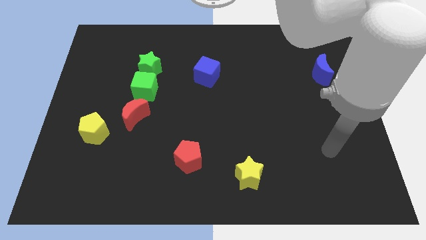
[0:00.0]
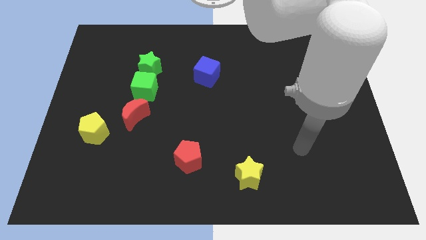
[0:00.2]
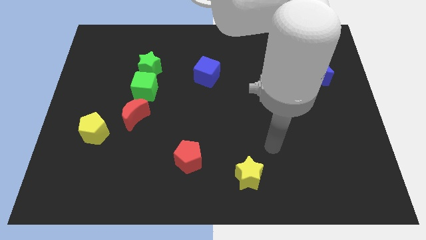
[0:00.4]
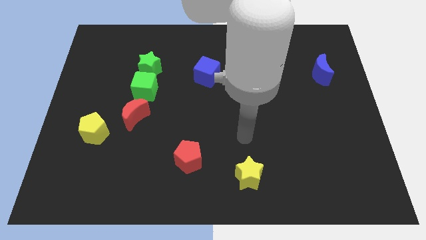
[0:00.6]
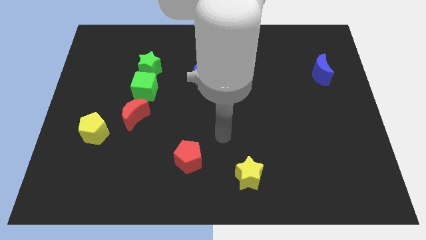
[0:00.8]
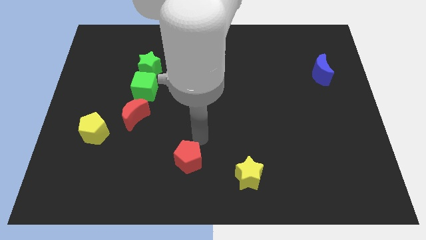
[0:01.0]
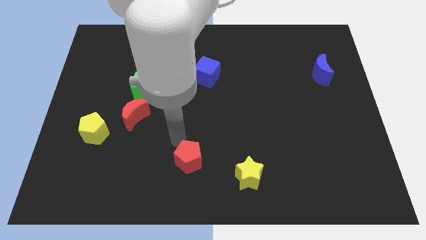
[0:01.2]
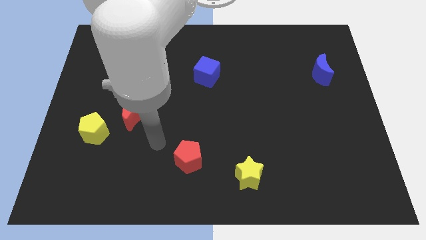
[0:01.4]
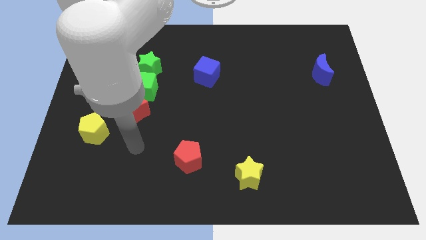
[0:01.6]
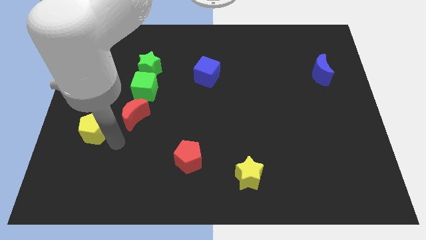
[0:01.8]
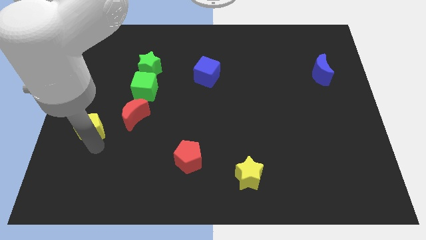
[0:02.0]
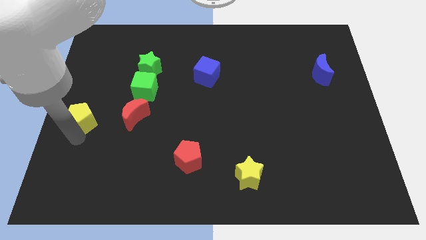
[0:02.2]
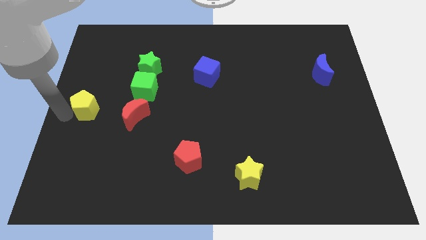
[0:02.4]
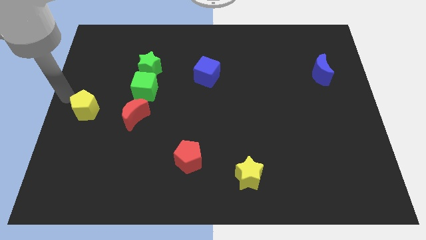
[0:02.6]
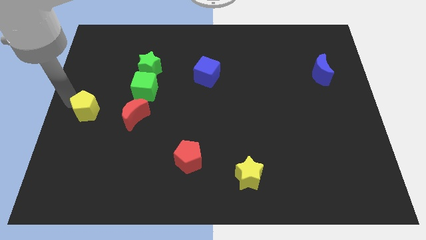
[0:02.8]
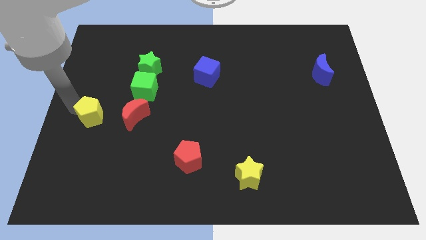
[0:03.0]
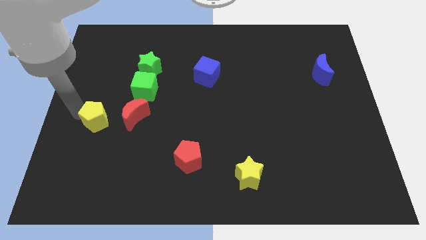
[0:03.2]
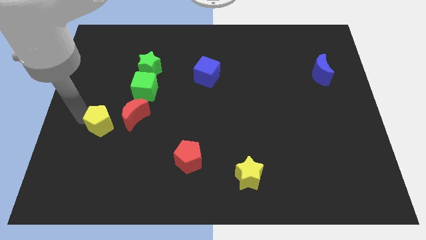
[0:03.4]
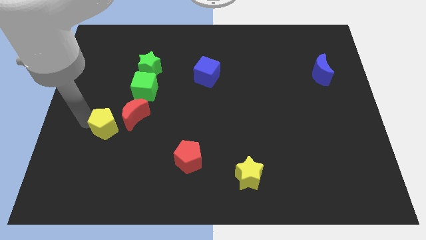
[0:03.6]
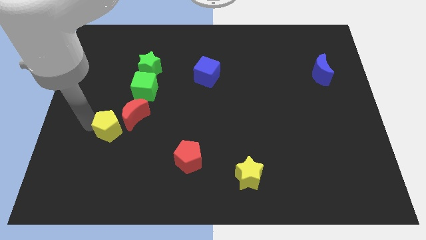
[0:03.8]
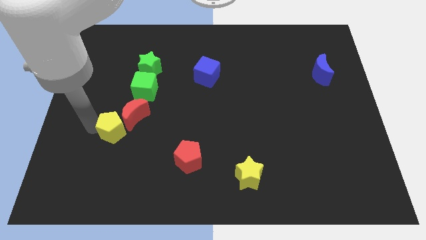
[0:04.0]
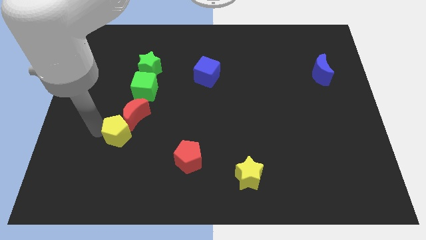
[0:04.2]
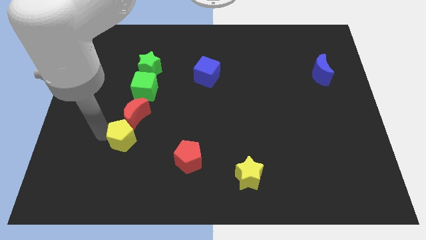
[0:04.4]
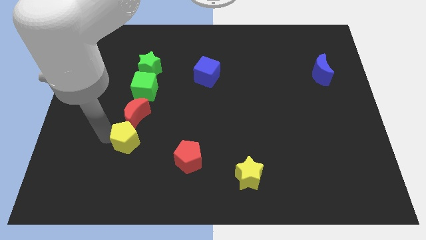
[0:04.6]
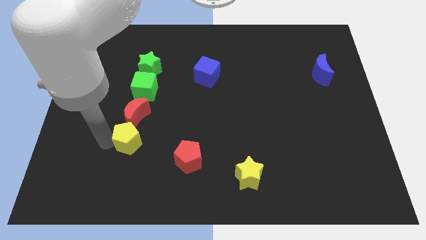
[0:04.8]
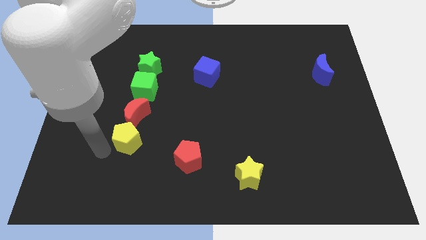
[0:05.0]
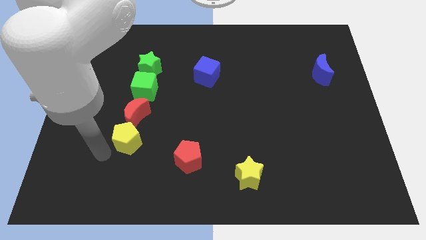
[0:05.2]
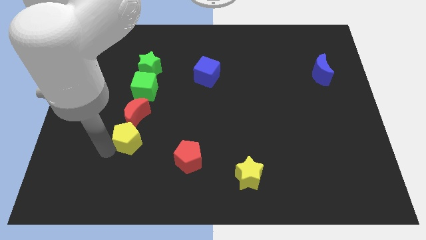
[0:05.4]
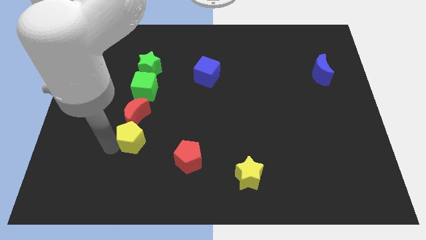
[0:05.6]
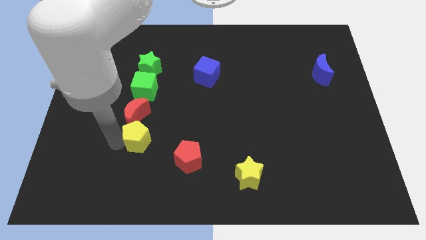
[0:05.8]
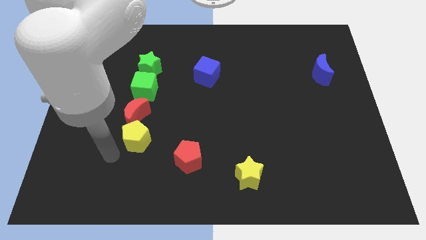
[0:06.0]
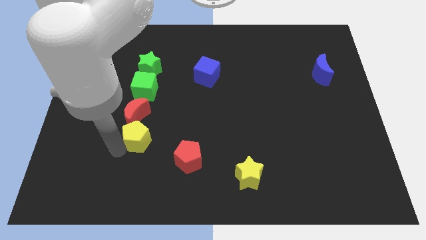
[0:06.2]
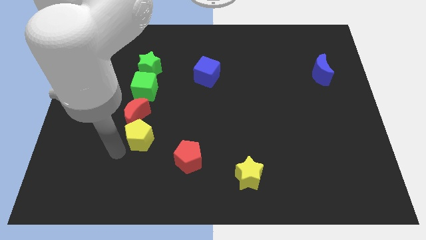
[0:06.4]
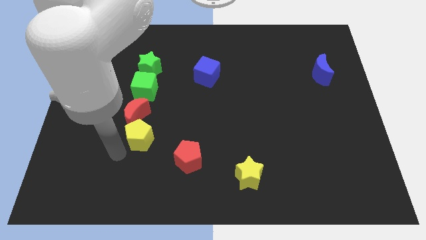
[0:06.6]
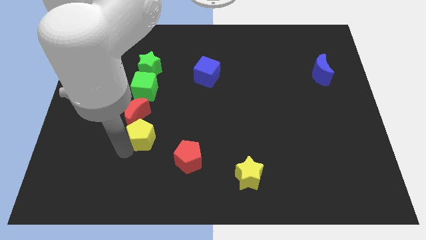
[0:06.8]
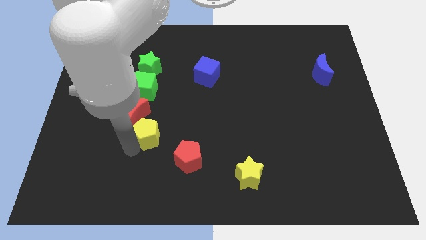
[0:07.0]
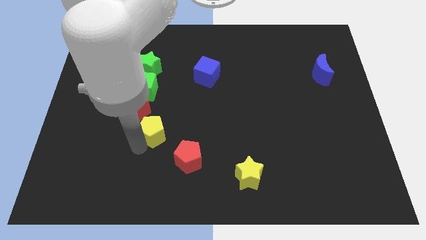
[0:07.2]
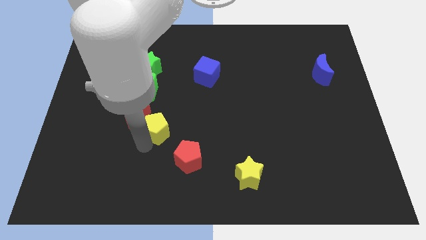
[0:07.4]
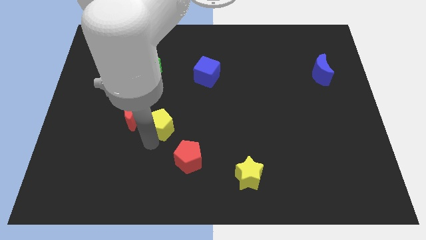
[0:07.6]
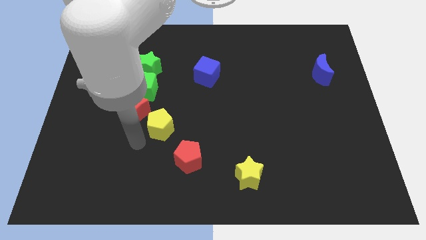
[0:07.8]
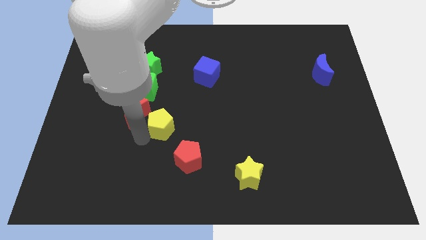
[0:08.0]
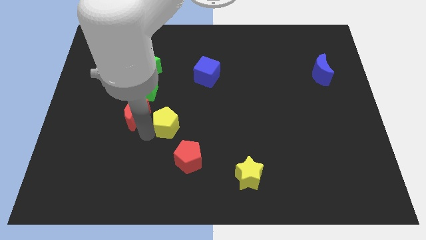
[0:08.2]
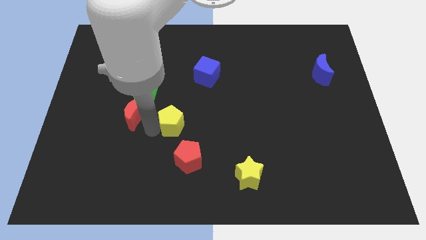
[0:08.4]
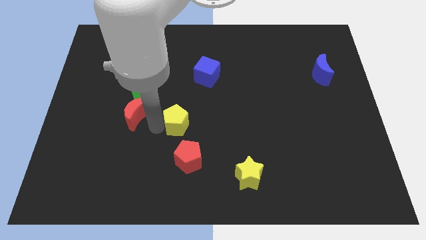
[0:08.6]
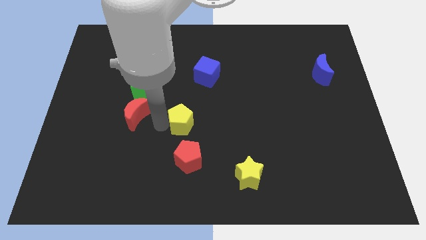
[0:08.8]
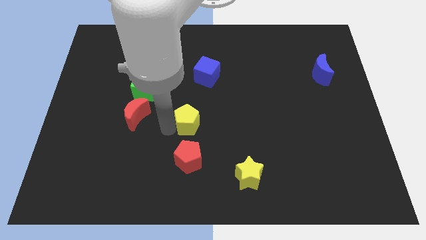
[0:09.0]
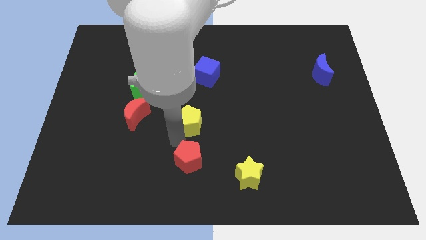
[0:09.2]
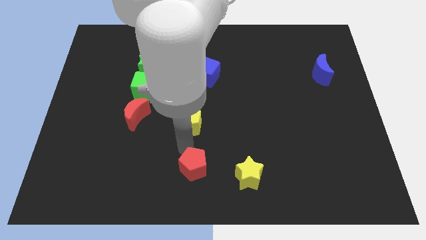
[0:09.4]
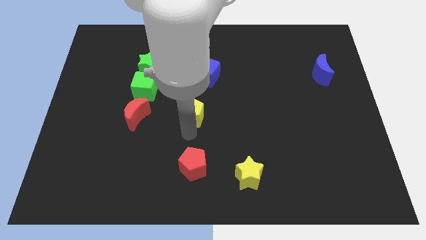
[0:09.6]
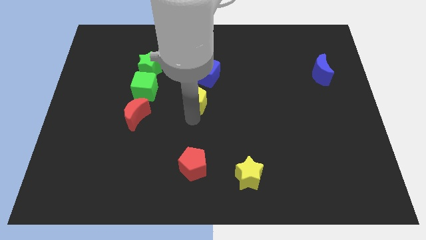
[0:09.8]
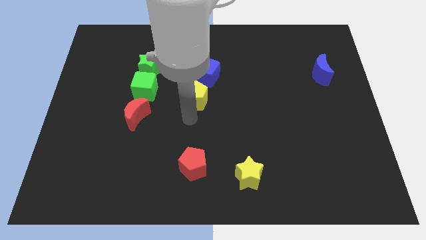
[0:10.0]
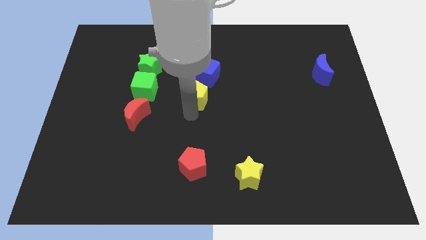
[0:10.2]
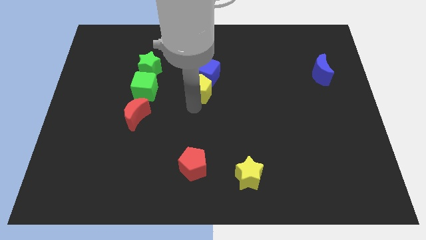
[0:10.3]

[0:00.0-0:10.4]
slide the yellow pentagon close to the blue cube

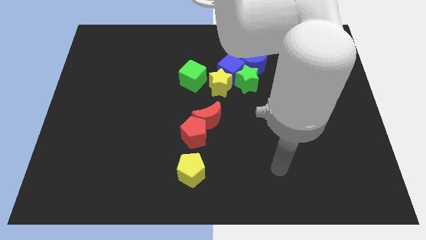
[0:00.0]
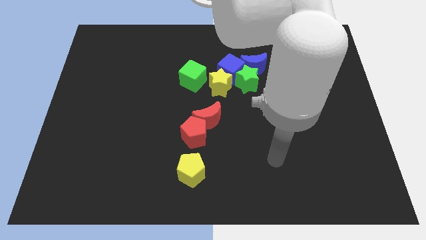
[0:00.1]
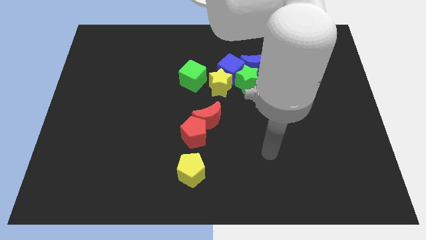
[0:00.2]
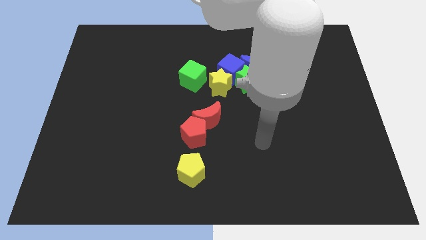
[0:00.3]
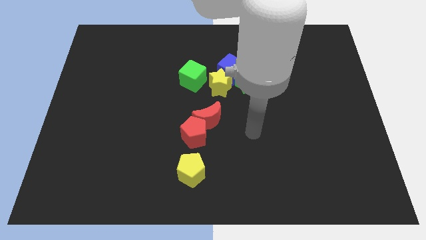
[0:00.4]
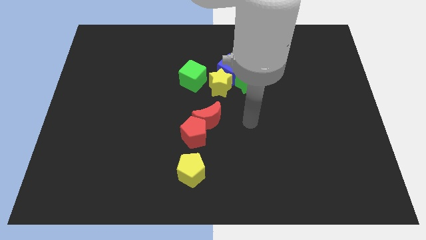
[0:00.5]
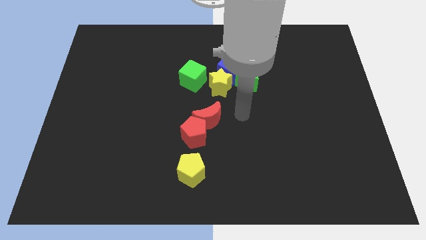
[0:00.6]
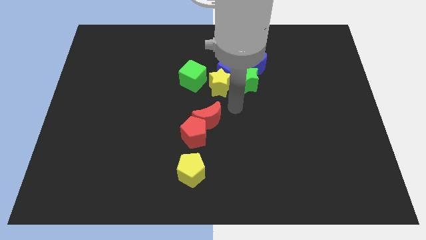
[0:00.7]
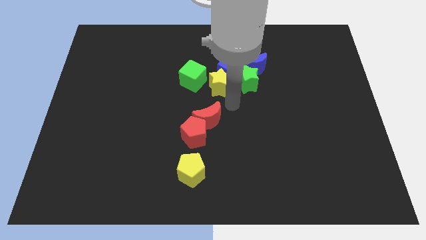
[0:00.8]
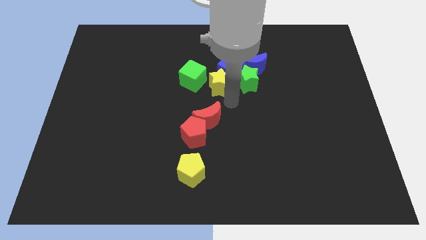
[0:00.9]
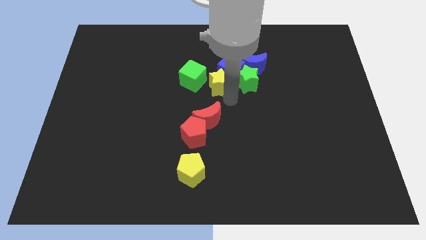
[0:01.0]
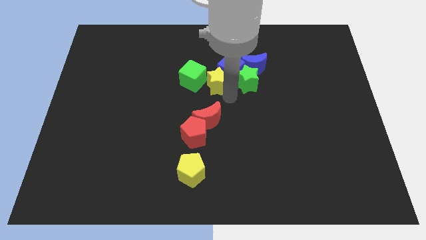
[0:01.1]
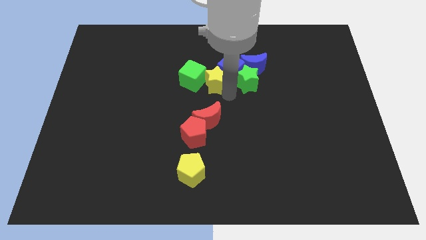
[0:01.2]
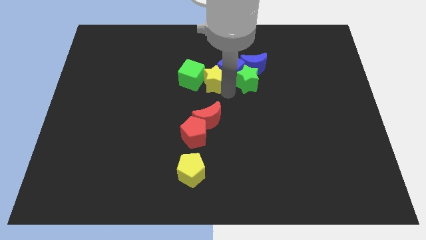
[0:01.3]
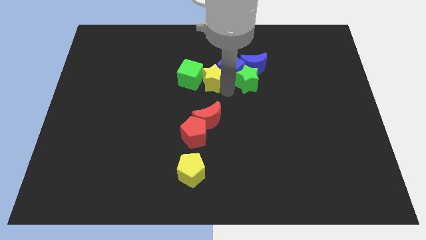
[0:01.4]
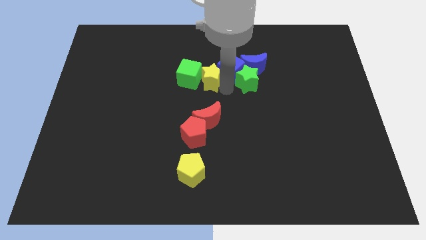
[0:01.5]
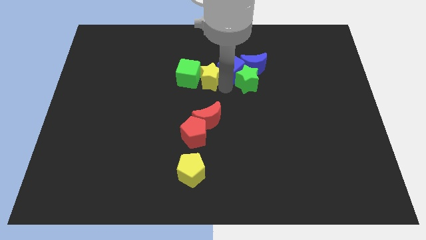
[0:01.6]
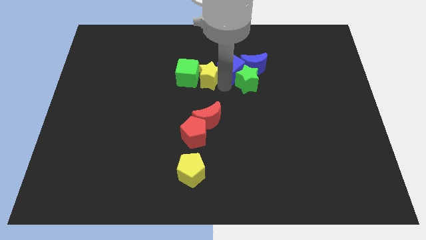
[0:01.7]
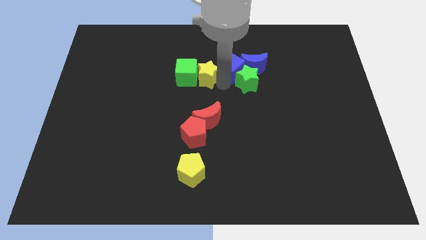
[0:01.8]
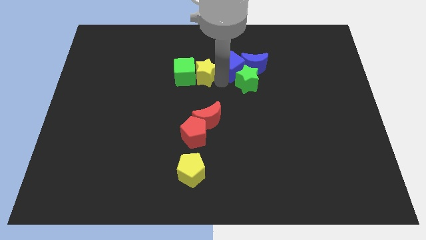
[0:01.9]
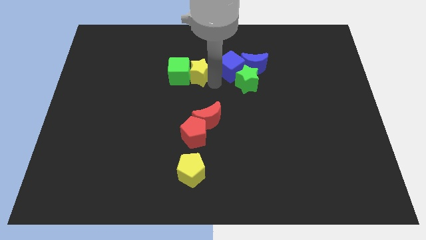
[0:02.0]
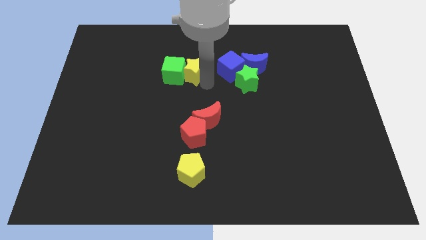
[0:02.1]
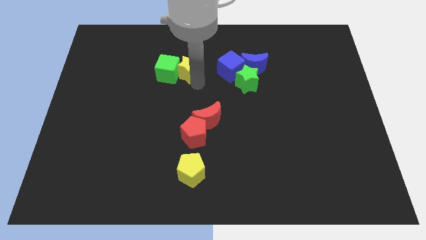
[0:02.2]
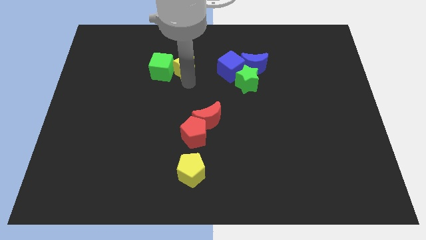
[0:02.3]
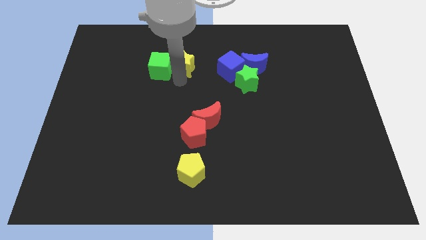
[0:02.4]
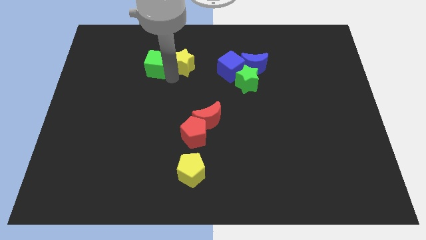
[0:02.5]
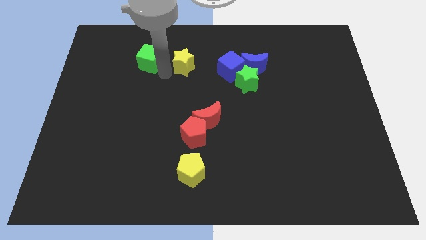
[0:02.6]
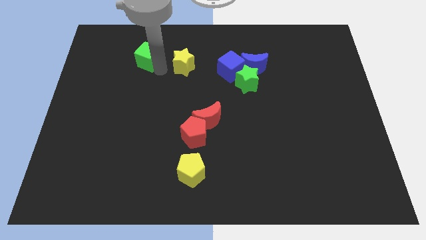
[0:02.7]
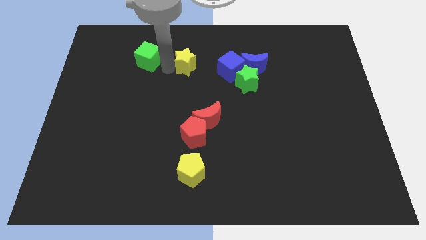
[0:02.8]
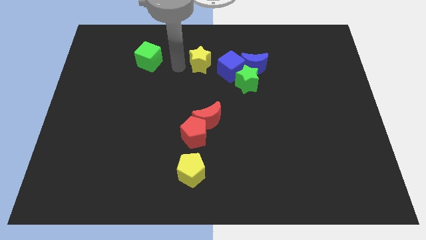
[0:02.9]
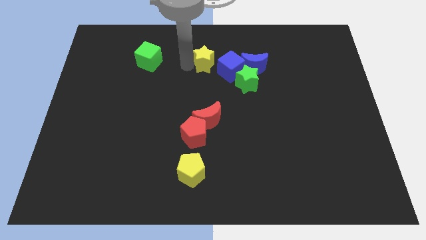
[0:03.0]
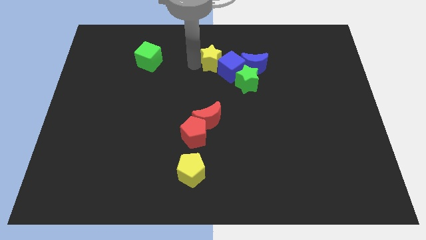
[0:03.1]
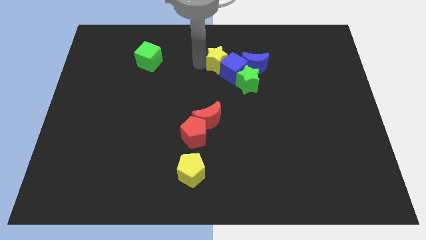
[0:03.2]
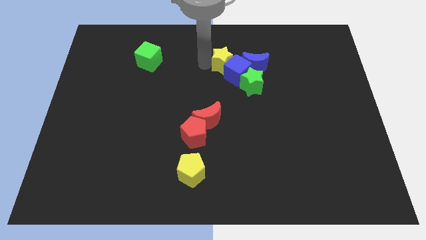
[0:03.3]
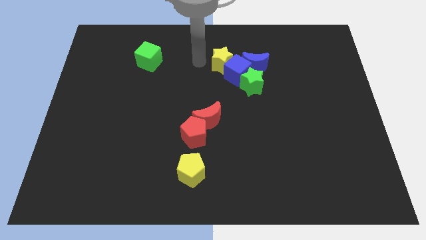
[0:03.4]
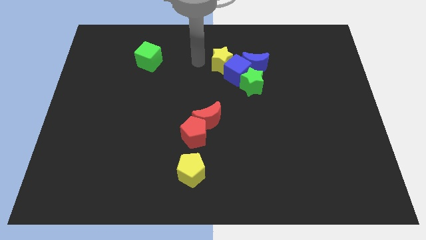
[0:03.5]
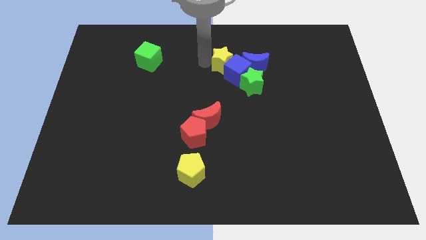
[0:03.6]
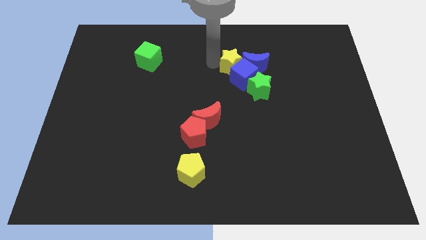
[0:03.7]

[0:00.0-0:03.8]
push the yellow star to the blue moon
